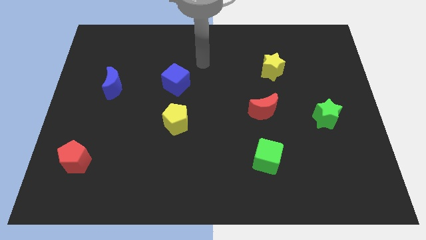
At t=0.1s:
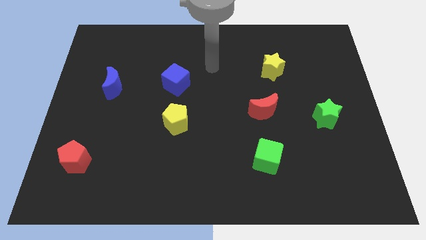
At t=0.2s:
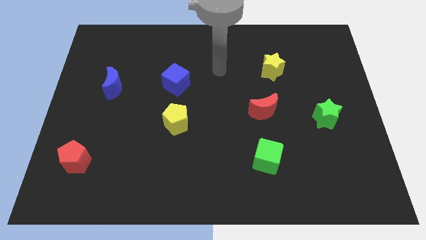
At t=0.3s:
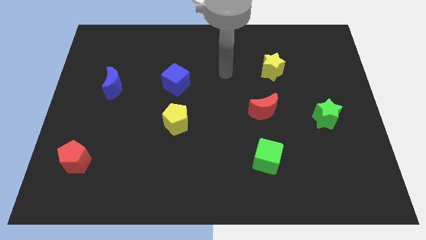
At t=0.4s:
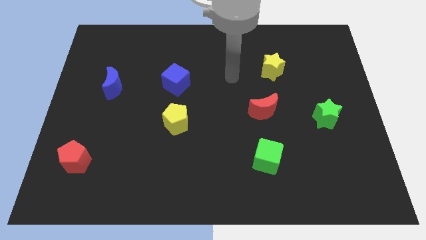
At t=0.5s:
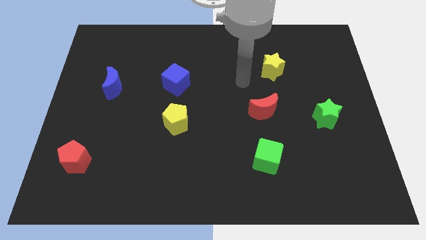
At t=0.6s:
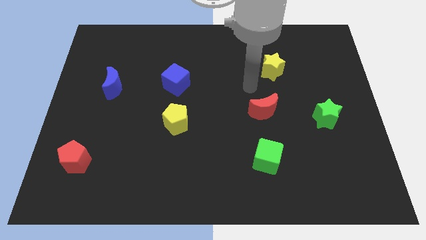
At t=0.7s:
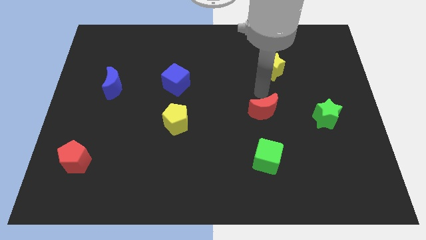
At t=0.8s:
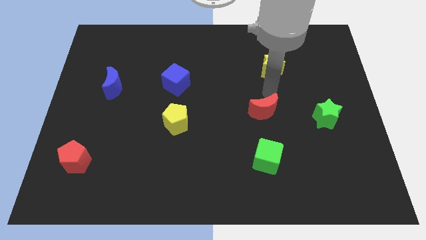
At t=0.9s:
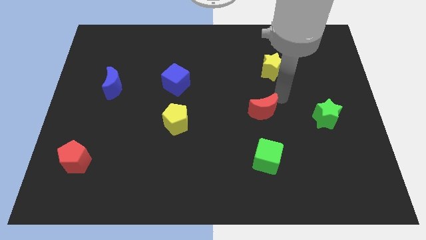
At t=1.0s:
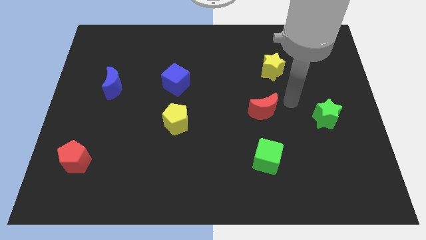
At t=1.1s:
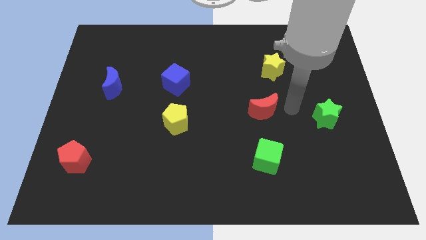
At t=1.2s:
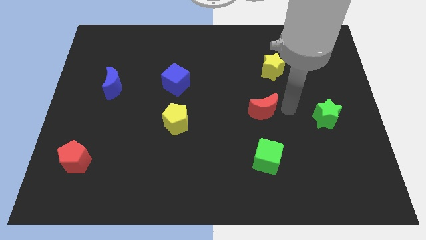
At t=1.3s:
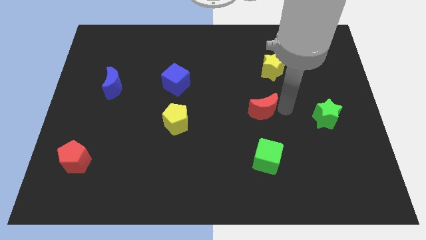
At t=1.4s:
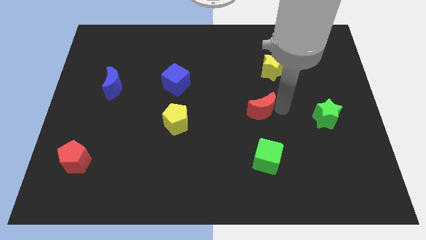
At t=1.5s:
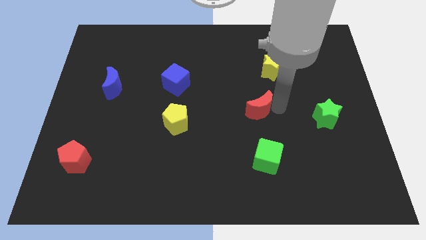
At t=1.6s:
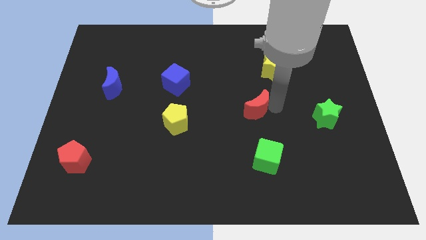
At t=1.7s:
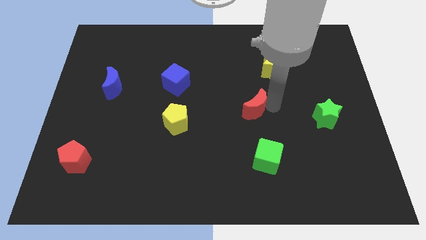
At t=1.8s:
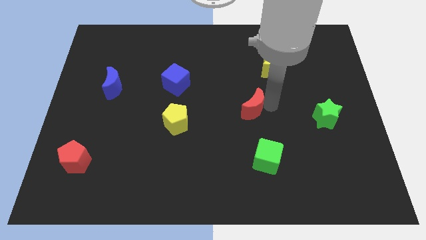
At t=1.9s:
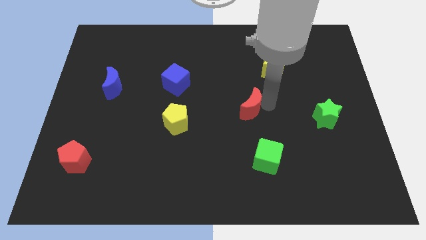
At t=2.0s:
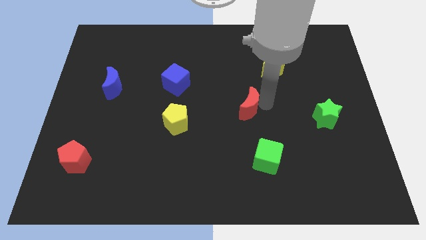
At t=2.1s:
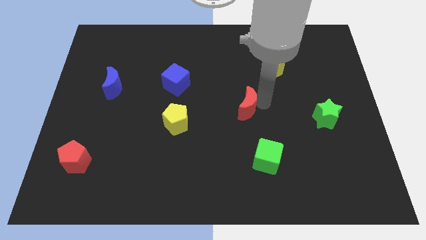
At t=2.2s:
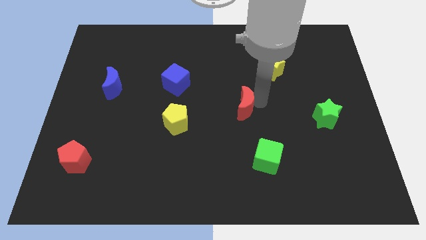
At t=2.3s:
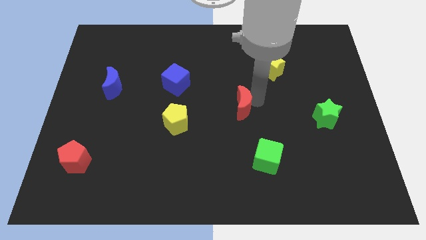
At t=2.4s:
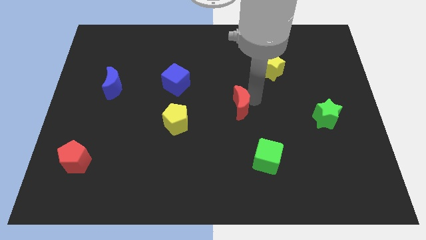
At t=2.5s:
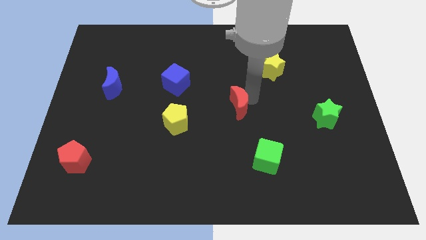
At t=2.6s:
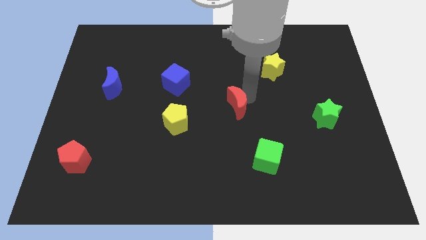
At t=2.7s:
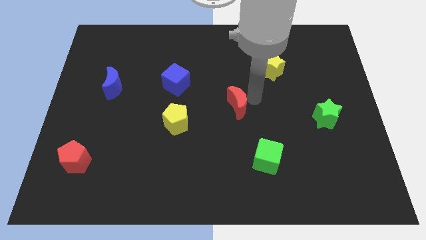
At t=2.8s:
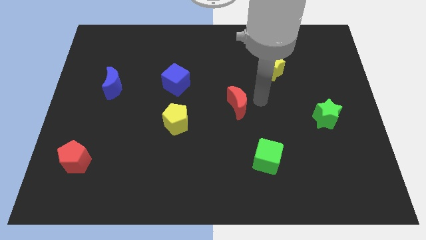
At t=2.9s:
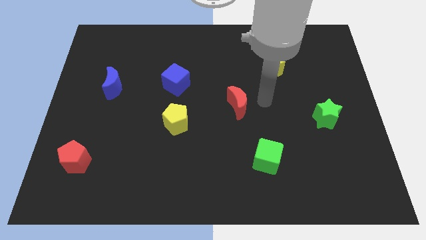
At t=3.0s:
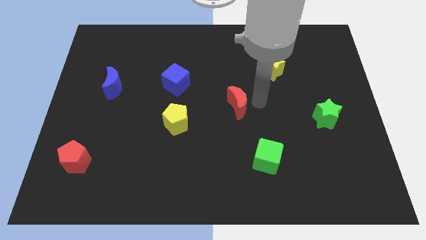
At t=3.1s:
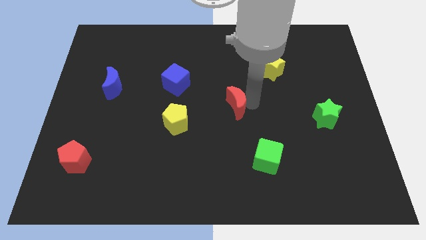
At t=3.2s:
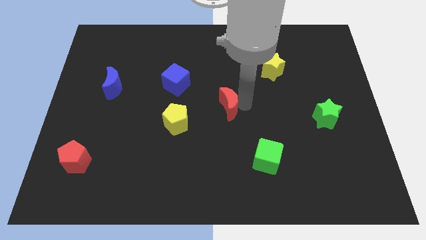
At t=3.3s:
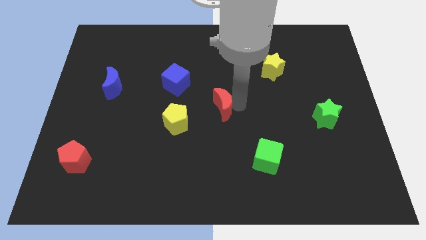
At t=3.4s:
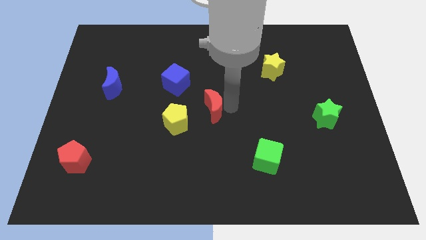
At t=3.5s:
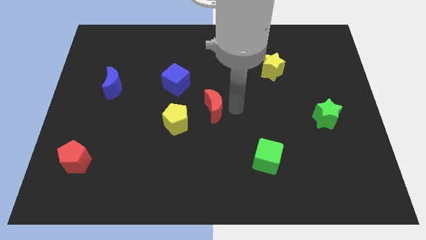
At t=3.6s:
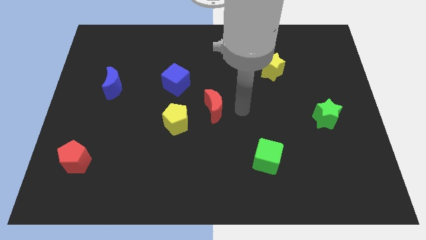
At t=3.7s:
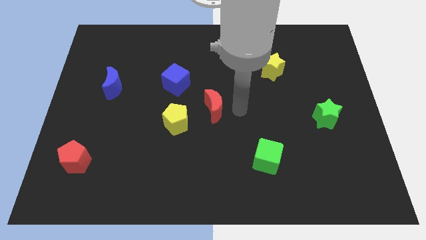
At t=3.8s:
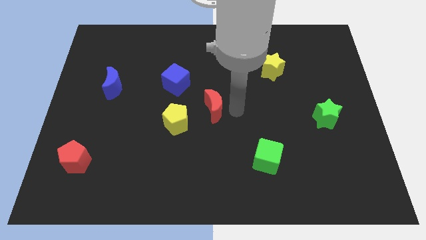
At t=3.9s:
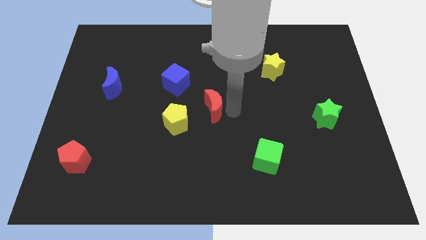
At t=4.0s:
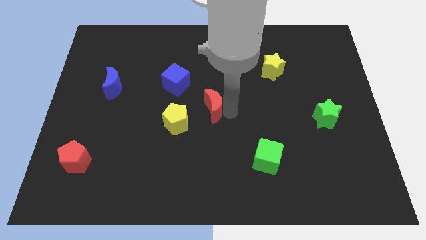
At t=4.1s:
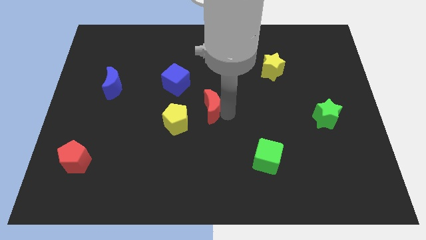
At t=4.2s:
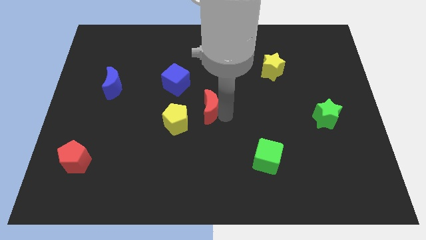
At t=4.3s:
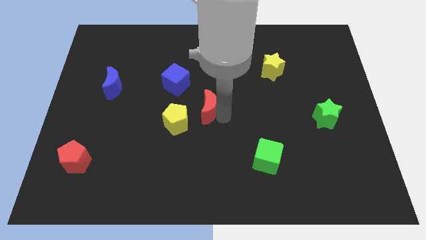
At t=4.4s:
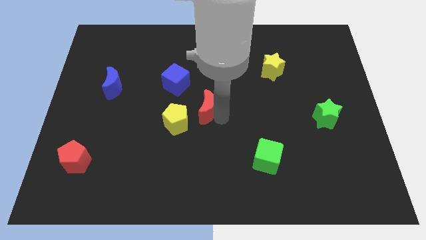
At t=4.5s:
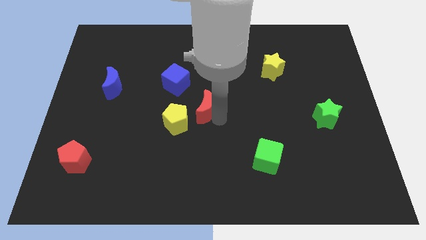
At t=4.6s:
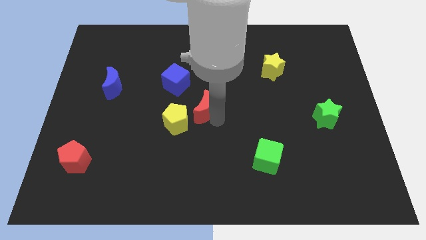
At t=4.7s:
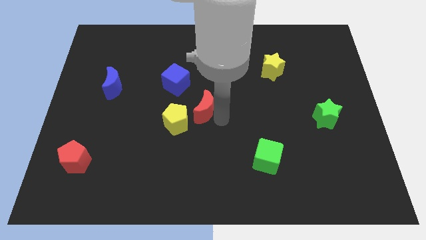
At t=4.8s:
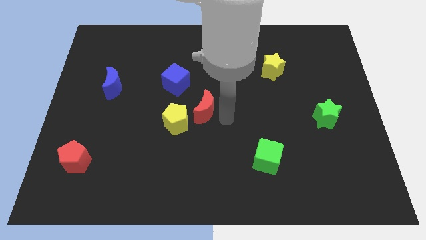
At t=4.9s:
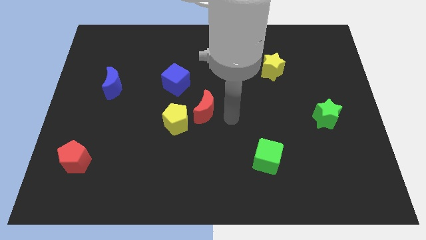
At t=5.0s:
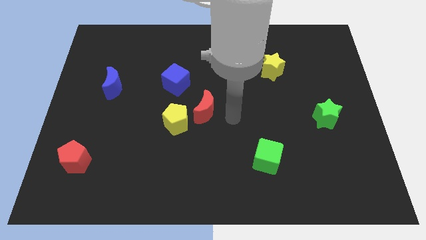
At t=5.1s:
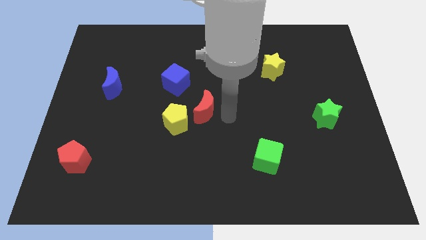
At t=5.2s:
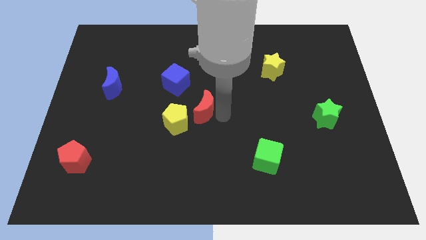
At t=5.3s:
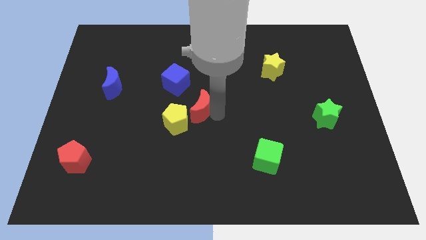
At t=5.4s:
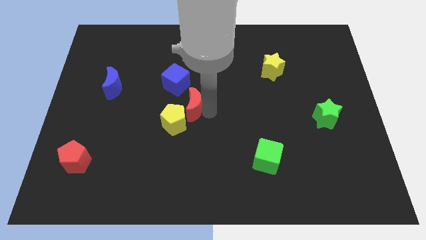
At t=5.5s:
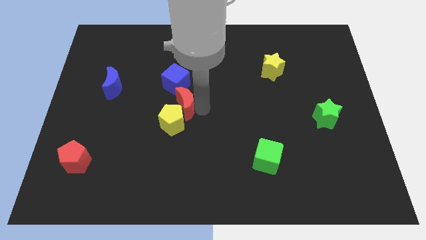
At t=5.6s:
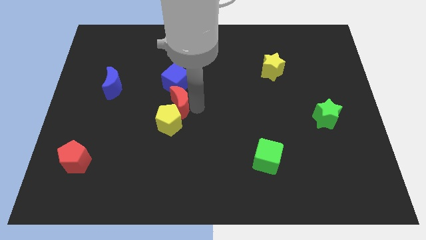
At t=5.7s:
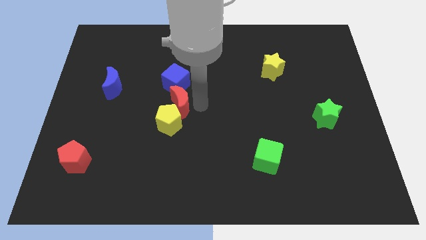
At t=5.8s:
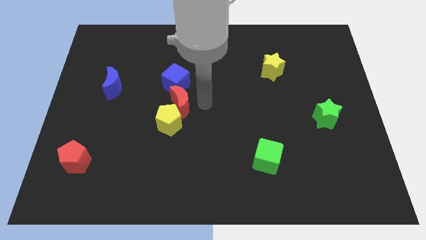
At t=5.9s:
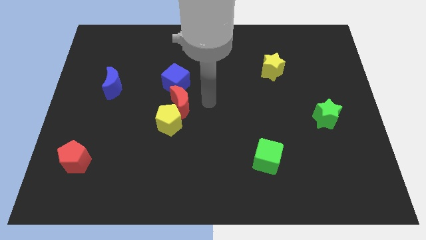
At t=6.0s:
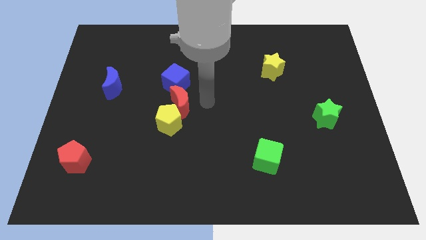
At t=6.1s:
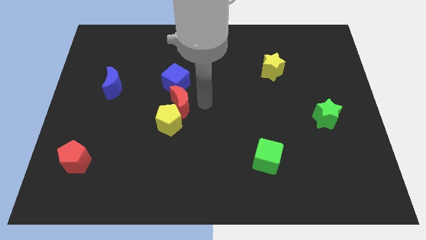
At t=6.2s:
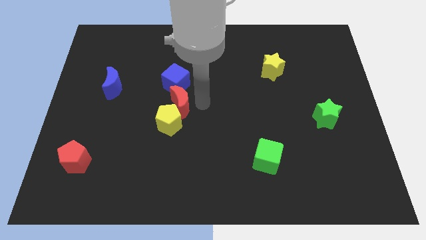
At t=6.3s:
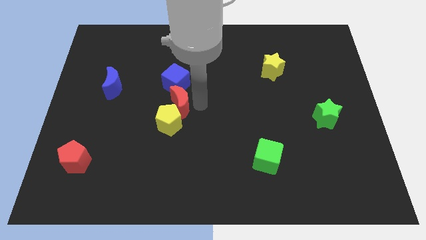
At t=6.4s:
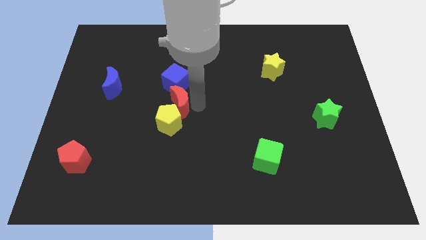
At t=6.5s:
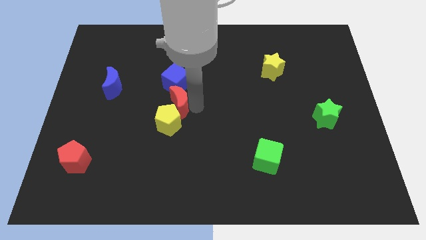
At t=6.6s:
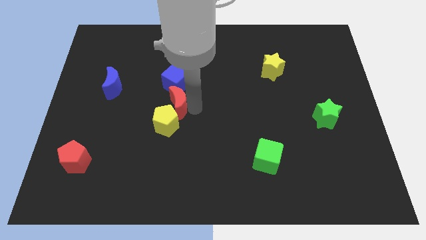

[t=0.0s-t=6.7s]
push the red moon left

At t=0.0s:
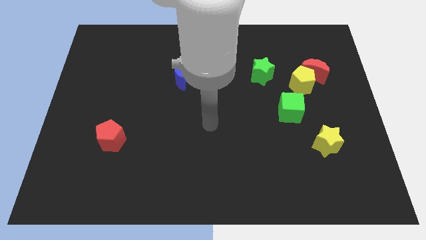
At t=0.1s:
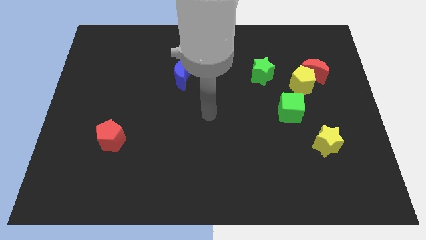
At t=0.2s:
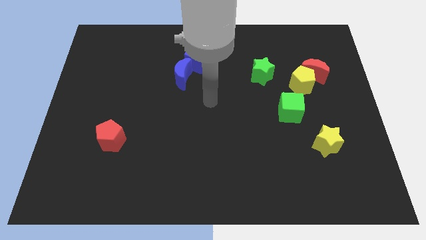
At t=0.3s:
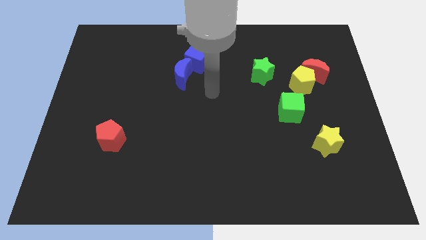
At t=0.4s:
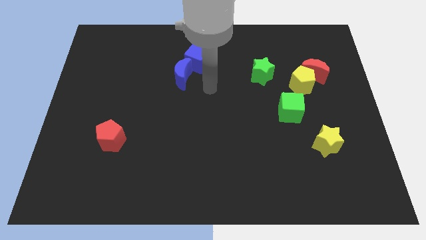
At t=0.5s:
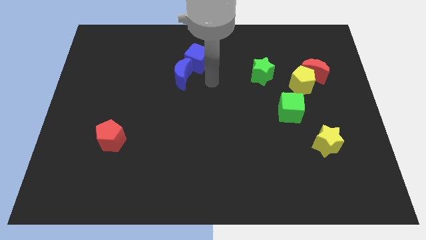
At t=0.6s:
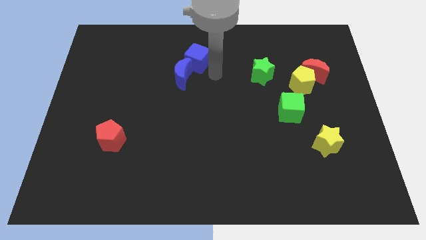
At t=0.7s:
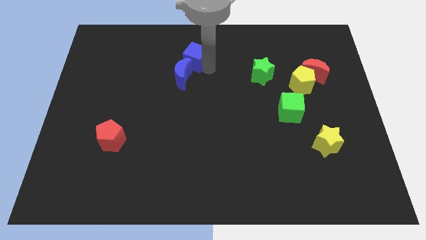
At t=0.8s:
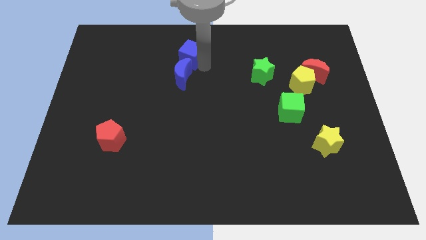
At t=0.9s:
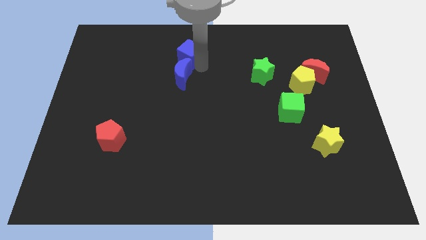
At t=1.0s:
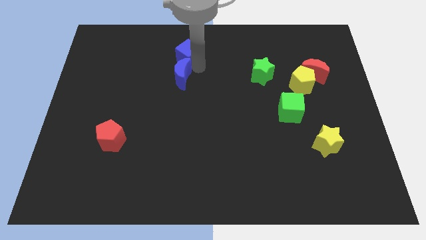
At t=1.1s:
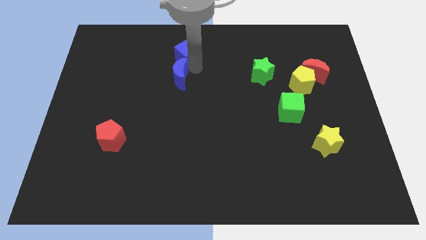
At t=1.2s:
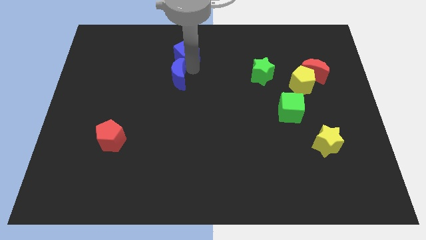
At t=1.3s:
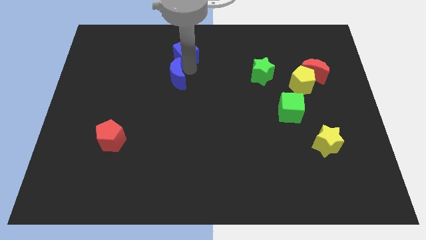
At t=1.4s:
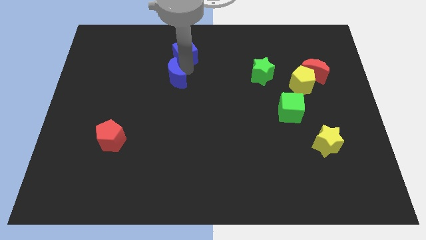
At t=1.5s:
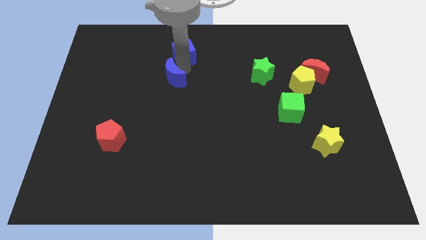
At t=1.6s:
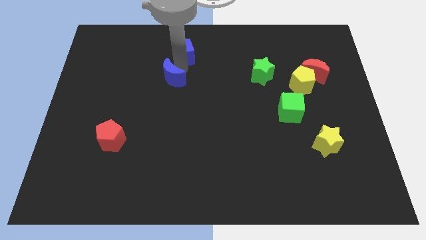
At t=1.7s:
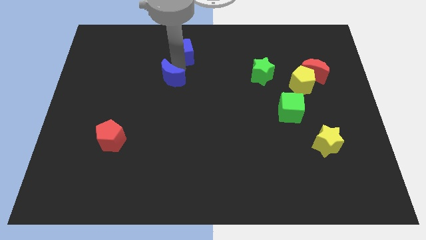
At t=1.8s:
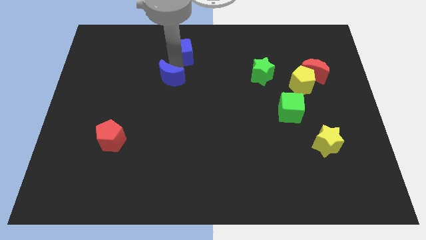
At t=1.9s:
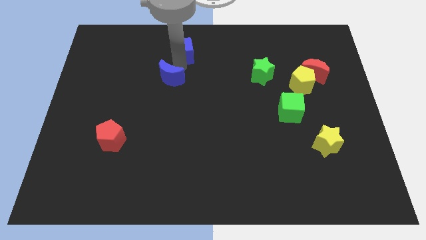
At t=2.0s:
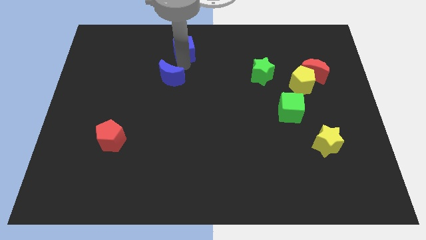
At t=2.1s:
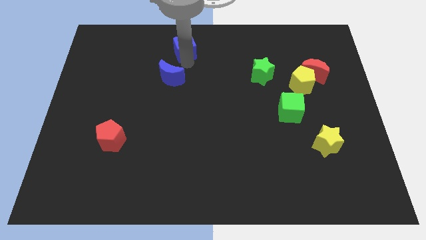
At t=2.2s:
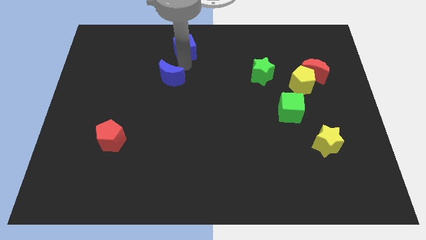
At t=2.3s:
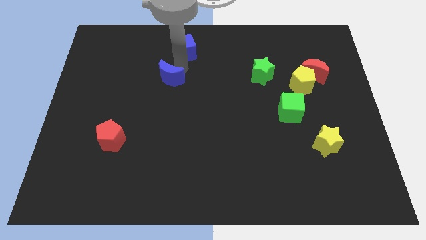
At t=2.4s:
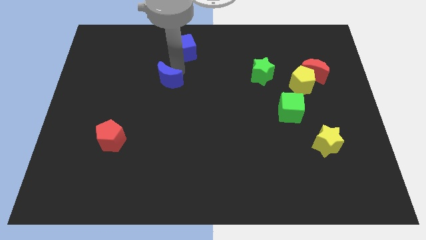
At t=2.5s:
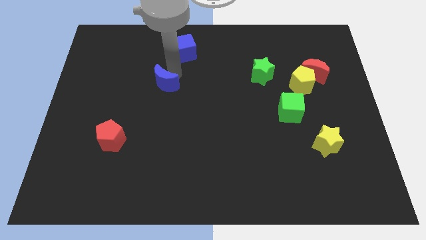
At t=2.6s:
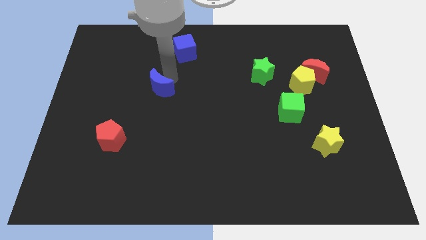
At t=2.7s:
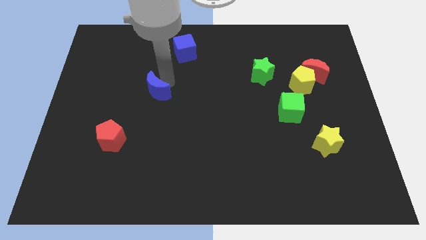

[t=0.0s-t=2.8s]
slide the blue moon diagonally down and left a bit
